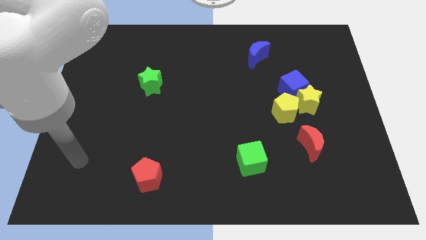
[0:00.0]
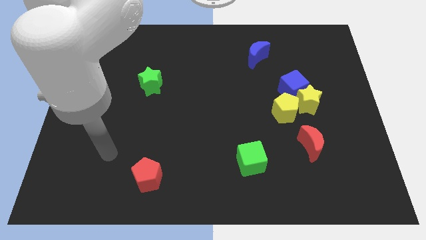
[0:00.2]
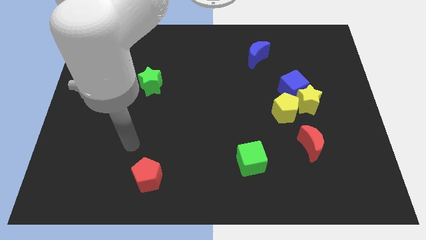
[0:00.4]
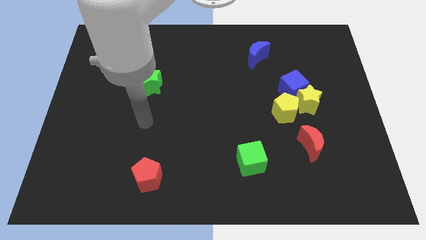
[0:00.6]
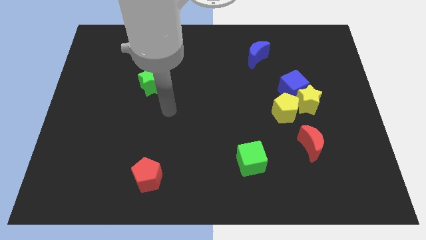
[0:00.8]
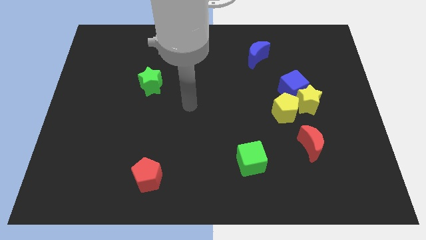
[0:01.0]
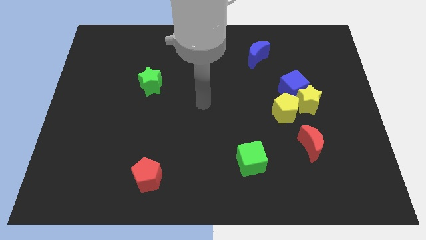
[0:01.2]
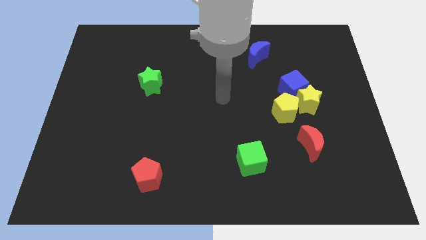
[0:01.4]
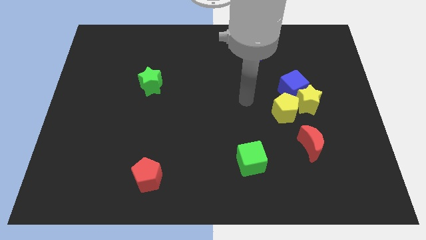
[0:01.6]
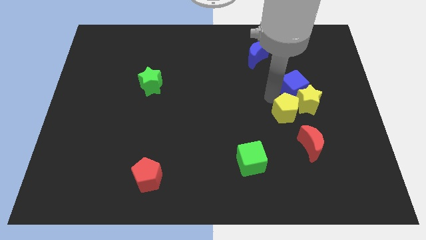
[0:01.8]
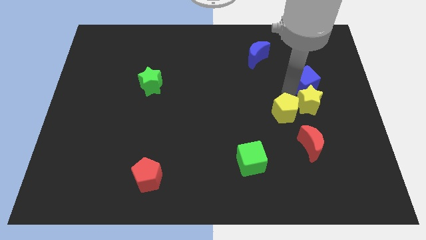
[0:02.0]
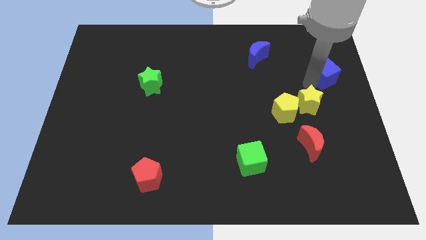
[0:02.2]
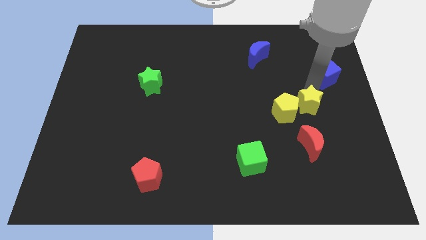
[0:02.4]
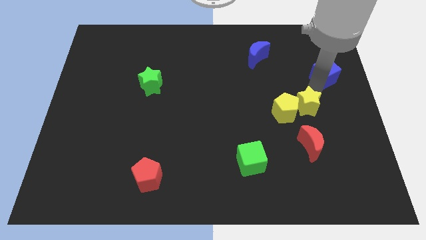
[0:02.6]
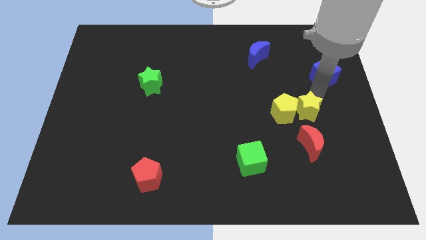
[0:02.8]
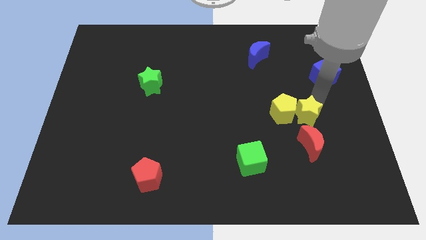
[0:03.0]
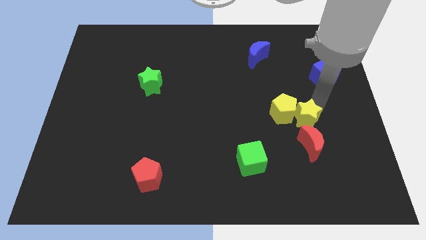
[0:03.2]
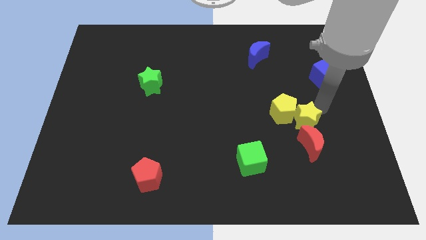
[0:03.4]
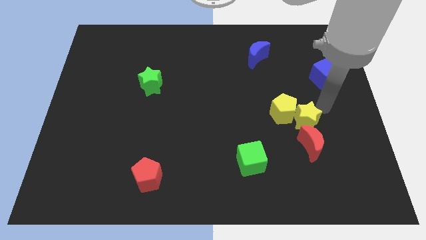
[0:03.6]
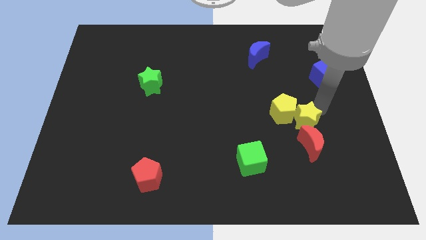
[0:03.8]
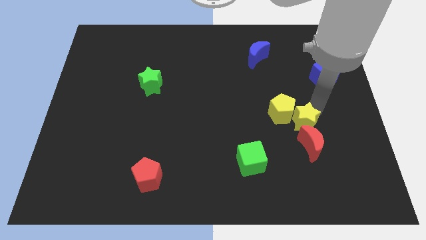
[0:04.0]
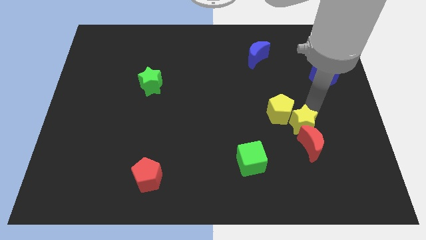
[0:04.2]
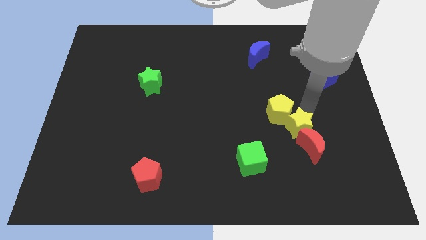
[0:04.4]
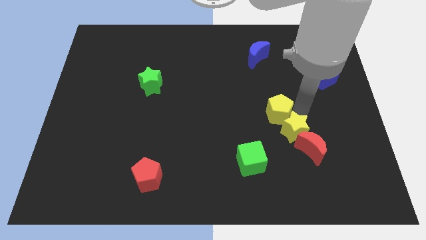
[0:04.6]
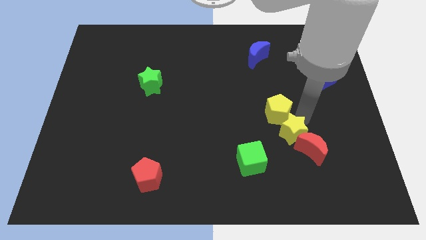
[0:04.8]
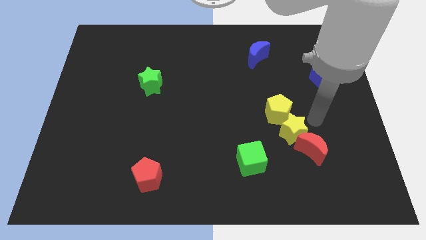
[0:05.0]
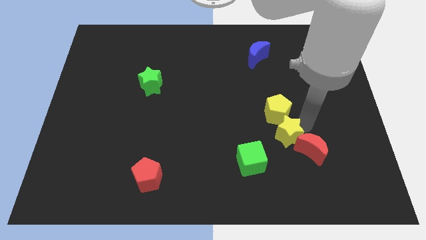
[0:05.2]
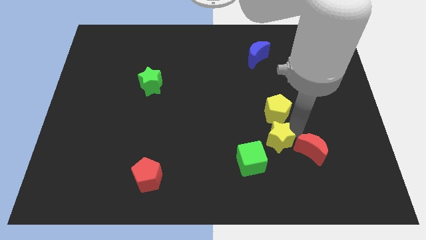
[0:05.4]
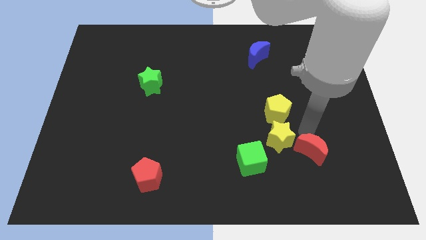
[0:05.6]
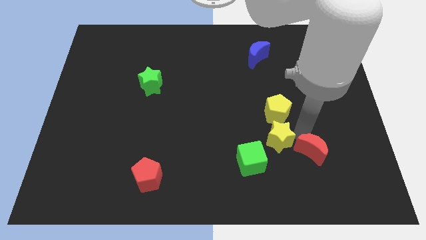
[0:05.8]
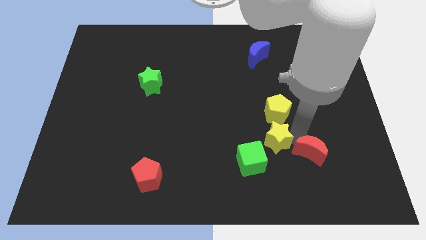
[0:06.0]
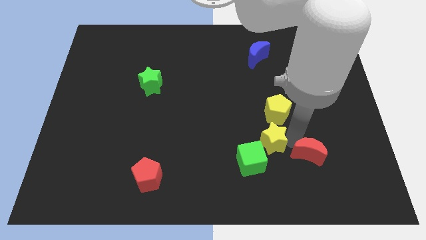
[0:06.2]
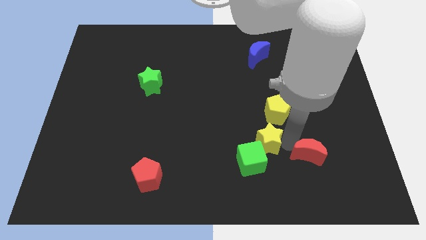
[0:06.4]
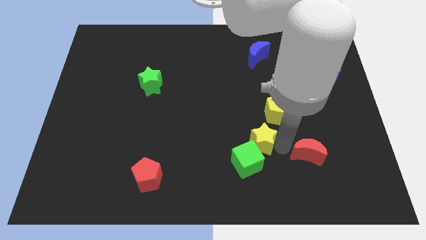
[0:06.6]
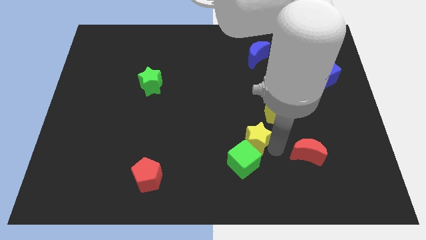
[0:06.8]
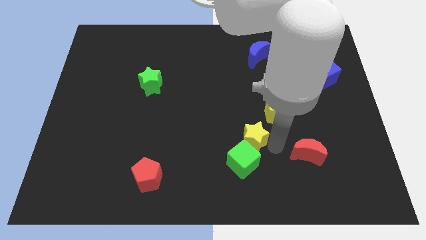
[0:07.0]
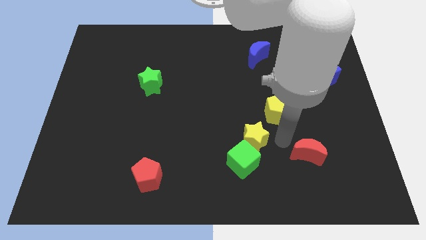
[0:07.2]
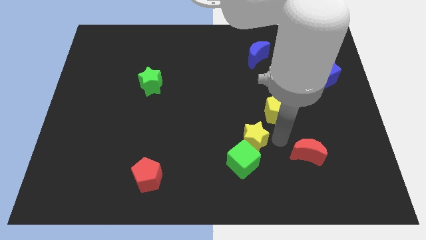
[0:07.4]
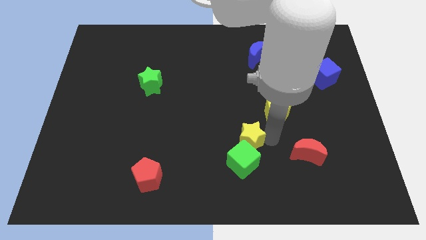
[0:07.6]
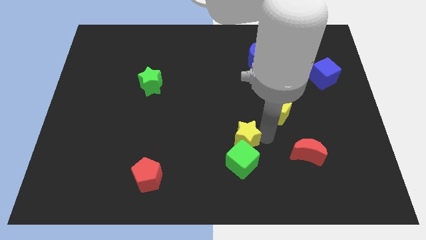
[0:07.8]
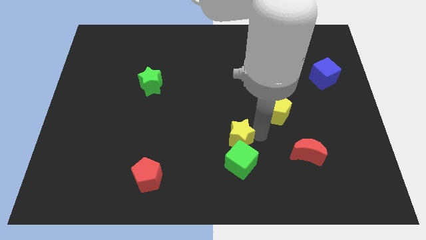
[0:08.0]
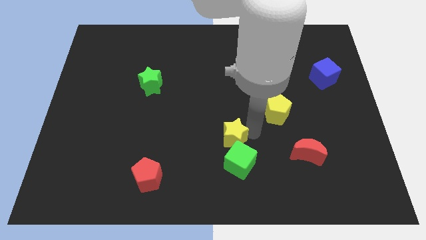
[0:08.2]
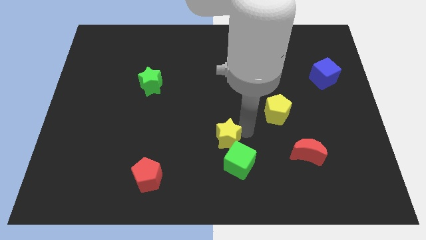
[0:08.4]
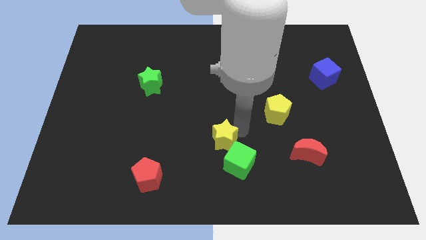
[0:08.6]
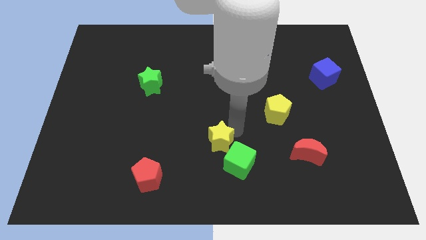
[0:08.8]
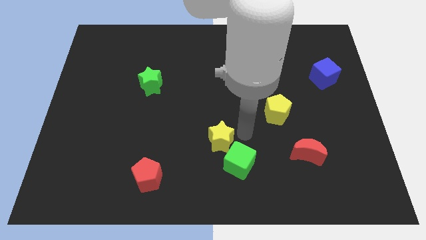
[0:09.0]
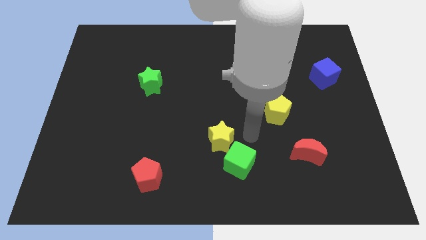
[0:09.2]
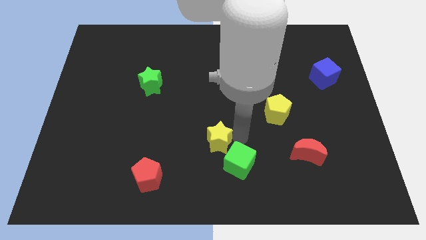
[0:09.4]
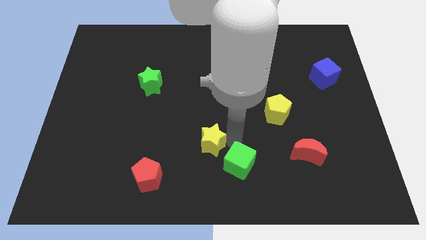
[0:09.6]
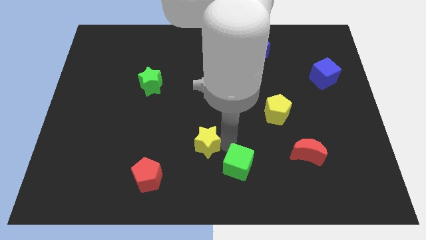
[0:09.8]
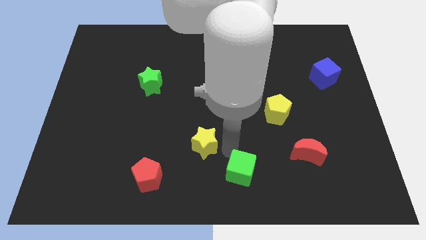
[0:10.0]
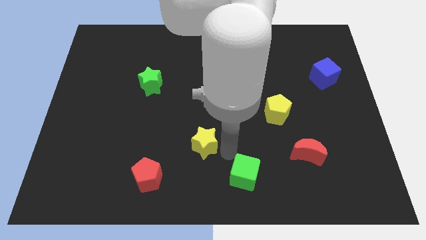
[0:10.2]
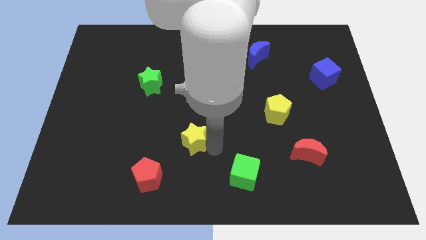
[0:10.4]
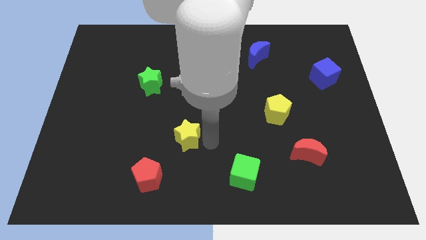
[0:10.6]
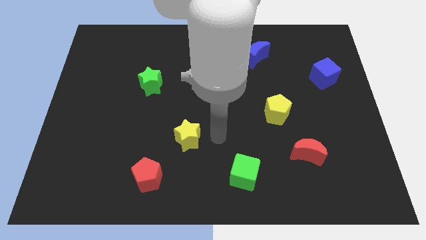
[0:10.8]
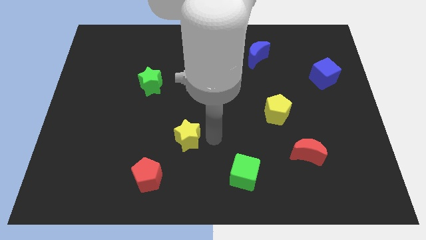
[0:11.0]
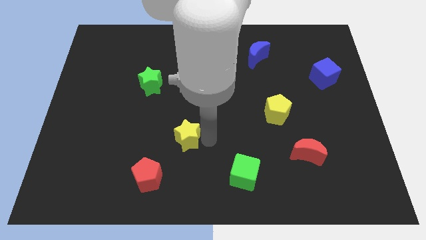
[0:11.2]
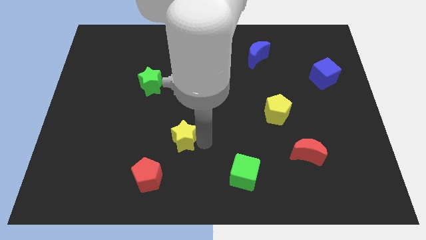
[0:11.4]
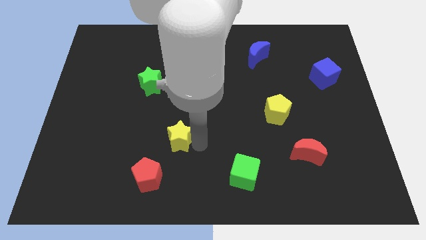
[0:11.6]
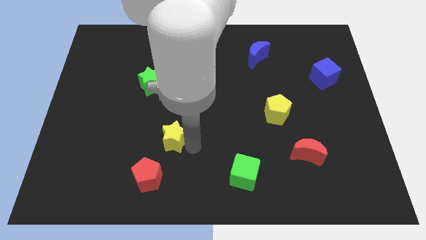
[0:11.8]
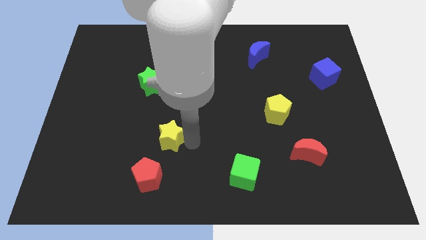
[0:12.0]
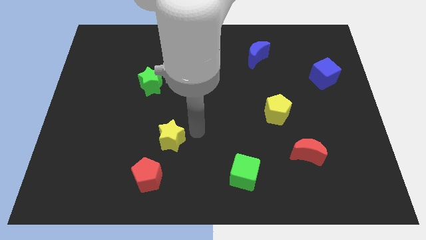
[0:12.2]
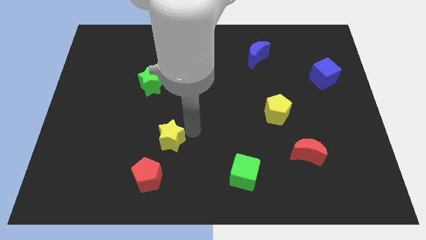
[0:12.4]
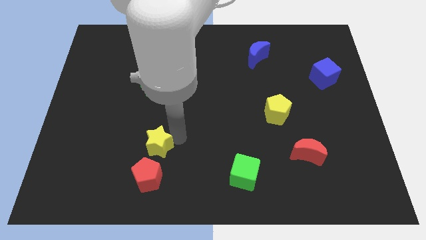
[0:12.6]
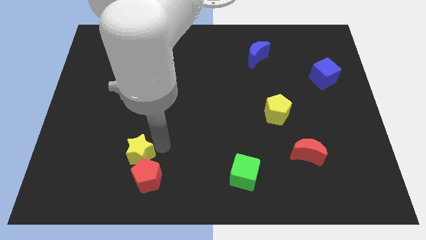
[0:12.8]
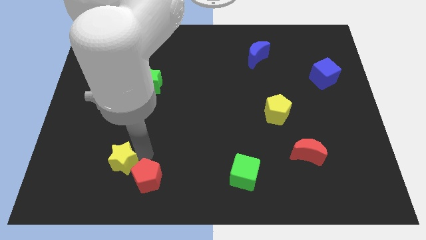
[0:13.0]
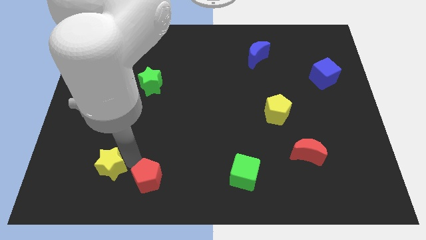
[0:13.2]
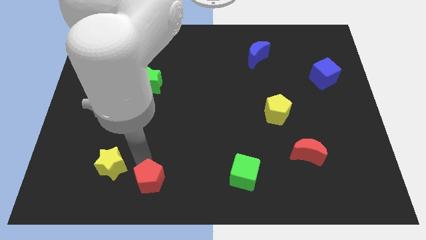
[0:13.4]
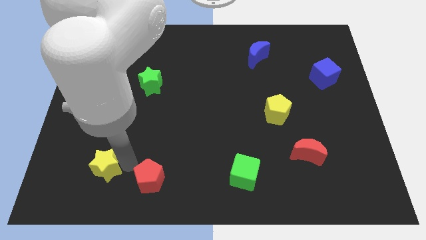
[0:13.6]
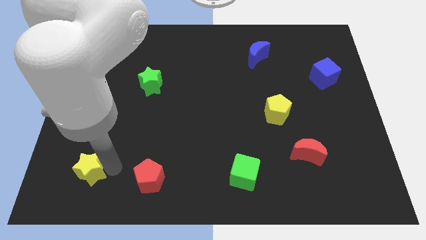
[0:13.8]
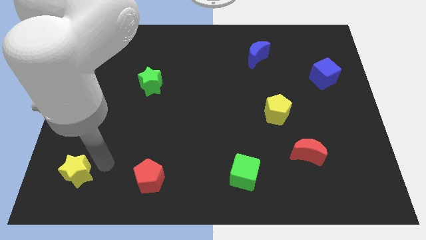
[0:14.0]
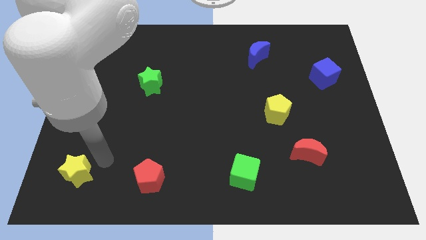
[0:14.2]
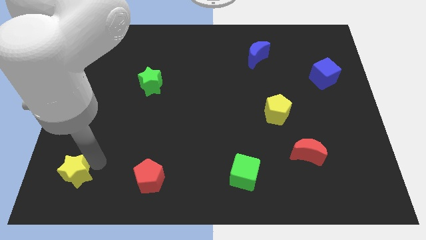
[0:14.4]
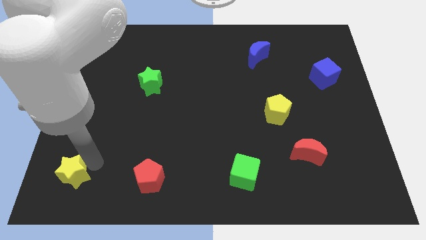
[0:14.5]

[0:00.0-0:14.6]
slide the yellow star to the bottom left
